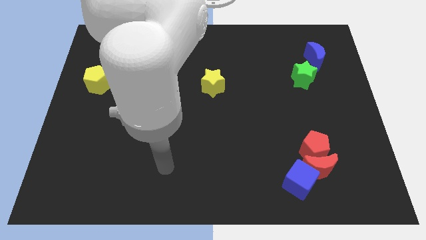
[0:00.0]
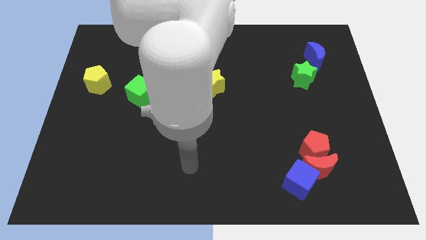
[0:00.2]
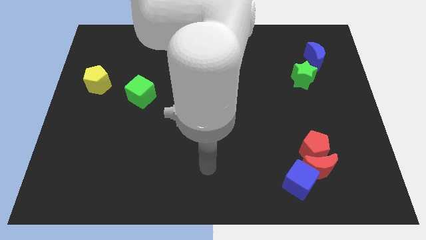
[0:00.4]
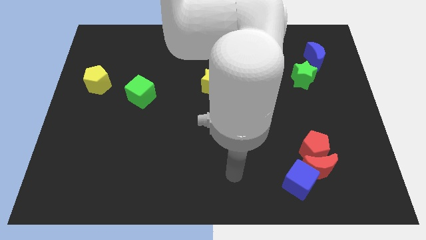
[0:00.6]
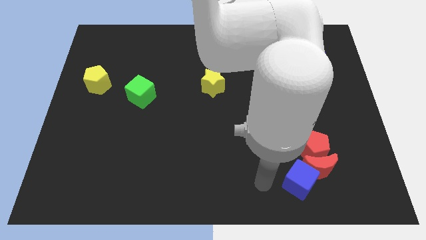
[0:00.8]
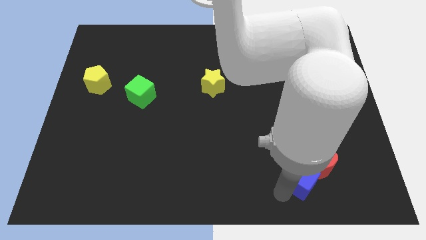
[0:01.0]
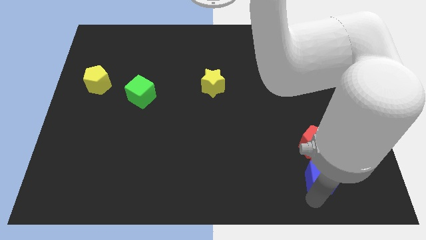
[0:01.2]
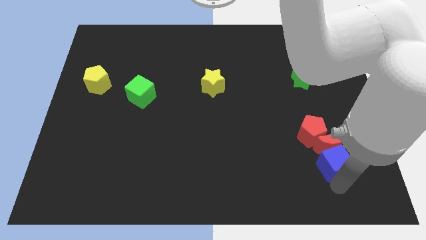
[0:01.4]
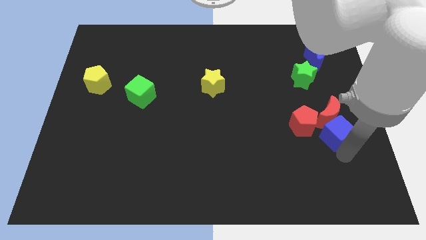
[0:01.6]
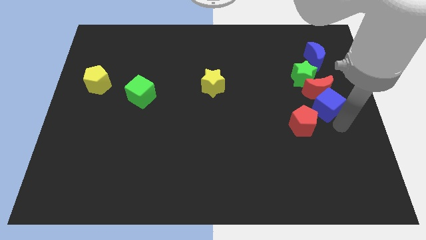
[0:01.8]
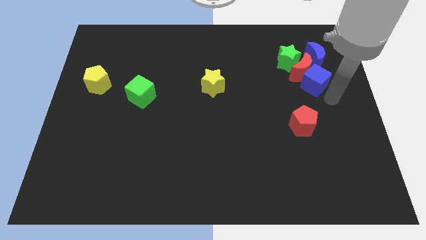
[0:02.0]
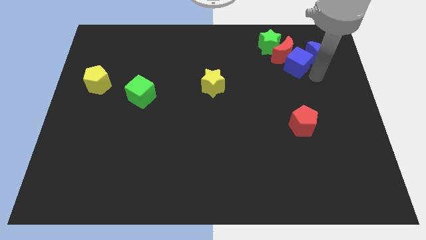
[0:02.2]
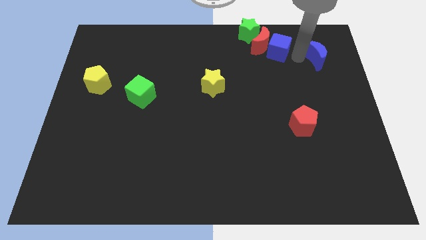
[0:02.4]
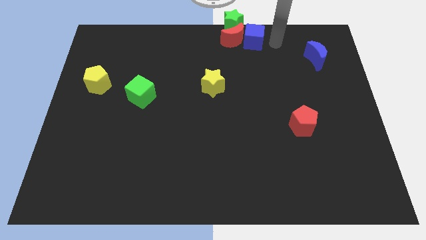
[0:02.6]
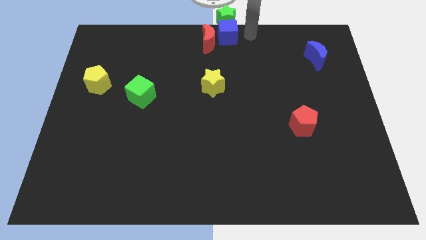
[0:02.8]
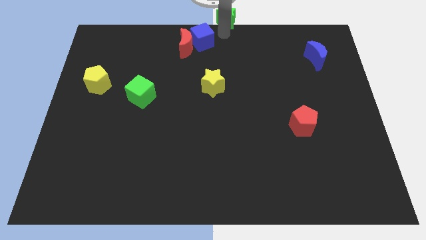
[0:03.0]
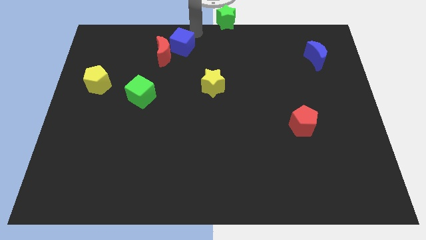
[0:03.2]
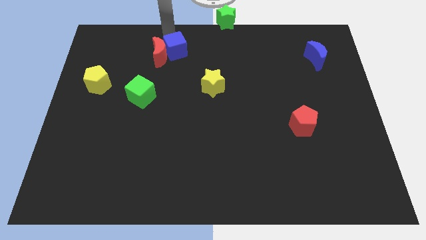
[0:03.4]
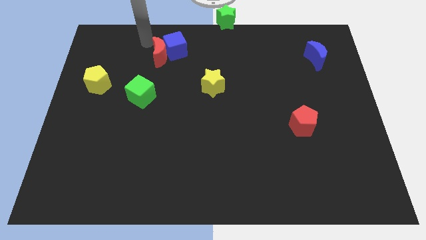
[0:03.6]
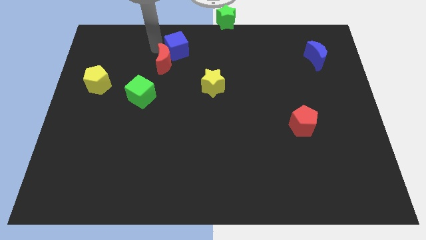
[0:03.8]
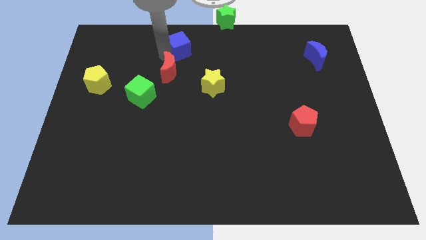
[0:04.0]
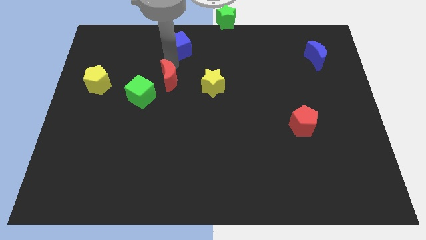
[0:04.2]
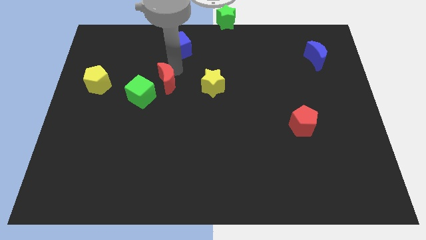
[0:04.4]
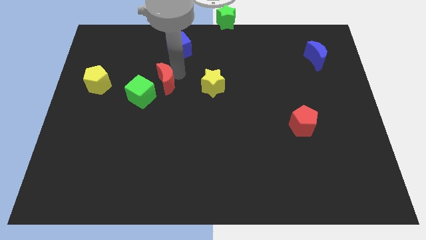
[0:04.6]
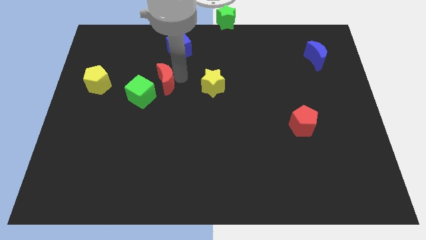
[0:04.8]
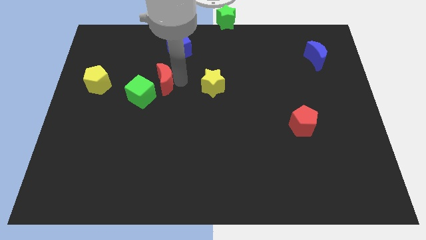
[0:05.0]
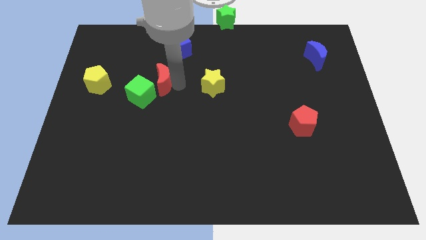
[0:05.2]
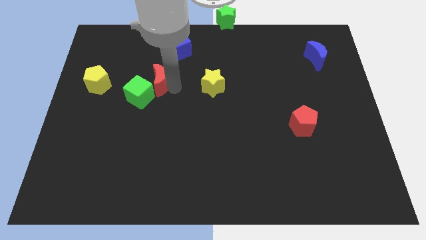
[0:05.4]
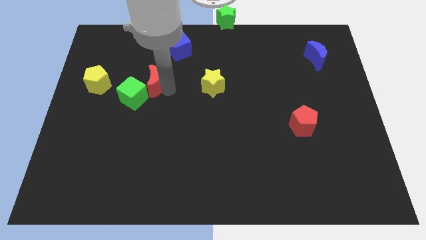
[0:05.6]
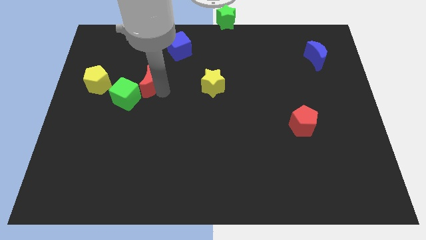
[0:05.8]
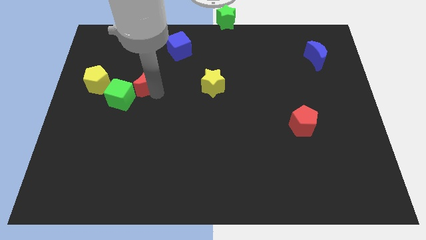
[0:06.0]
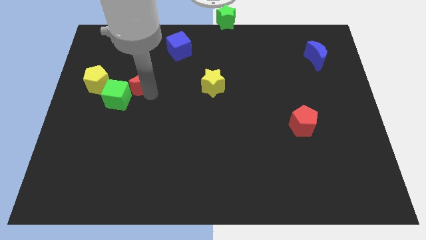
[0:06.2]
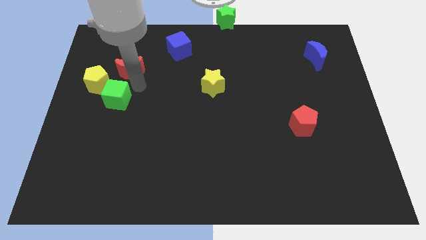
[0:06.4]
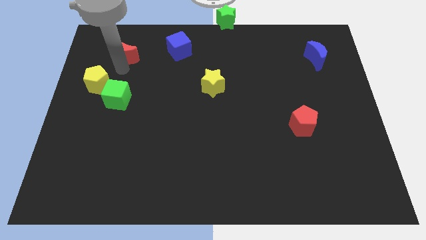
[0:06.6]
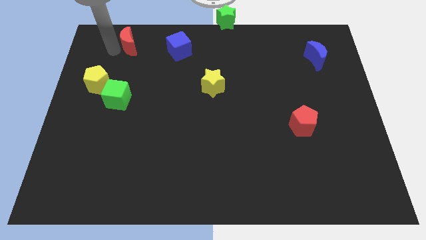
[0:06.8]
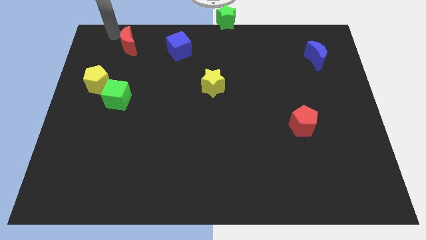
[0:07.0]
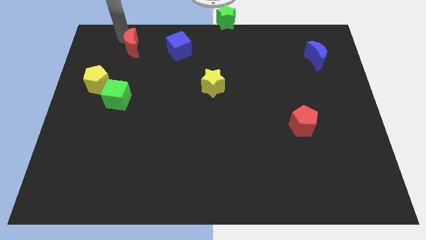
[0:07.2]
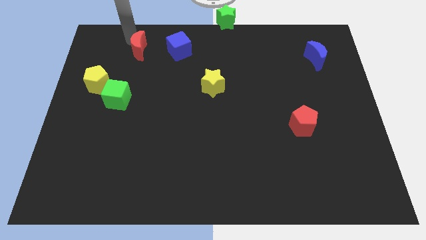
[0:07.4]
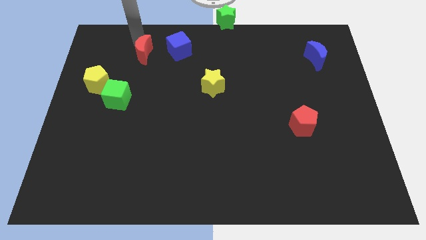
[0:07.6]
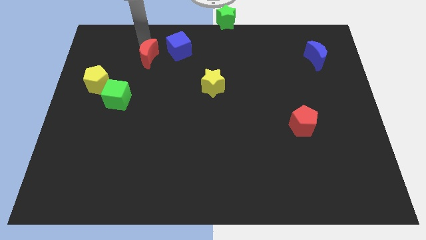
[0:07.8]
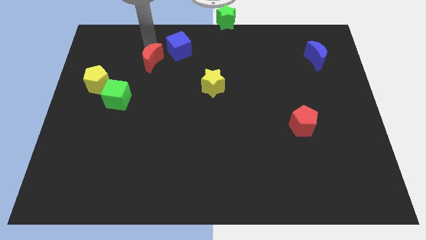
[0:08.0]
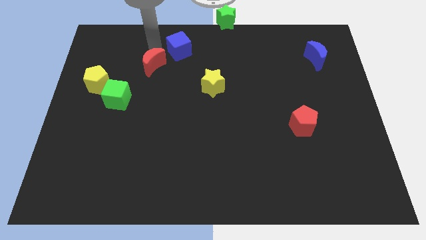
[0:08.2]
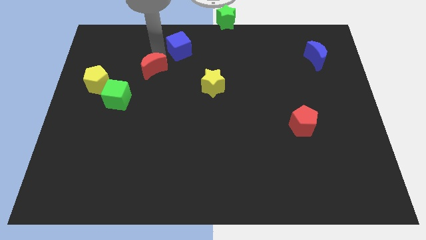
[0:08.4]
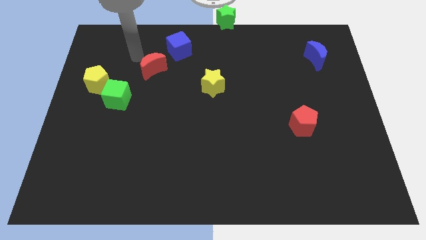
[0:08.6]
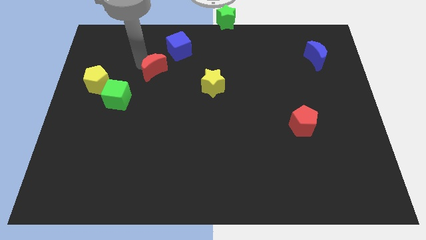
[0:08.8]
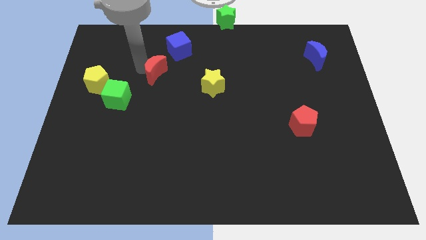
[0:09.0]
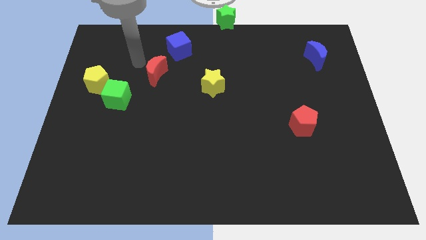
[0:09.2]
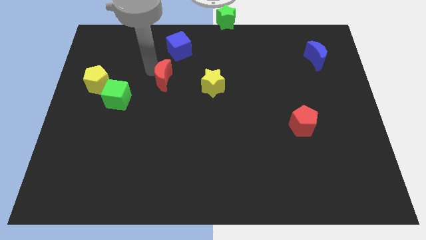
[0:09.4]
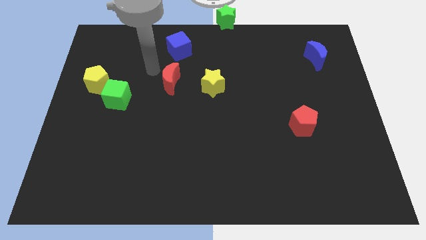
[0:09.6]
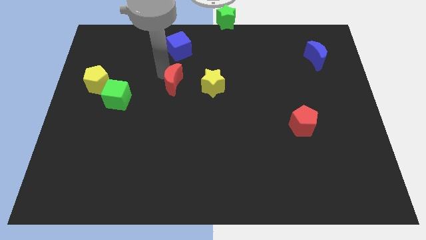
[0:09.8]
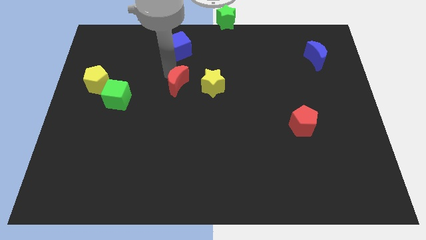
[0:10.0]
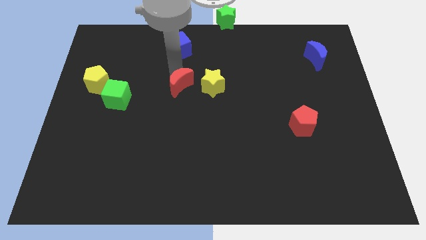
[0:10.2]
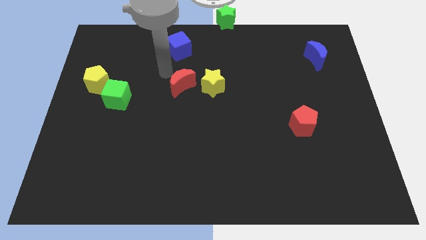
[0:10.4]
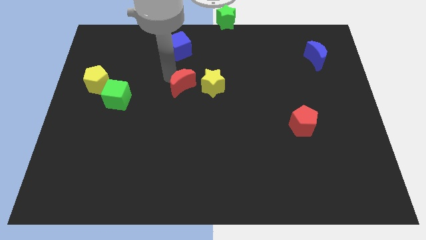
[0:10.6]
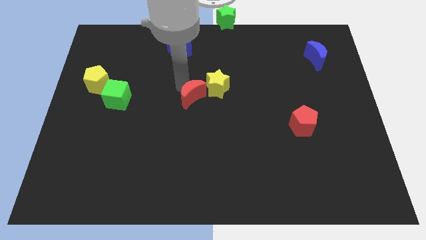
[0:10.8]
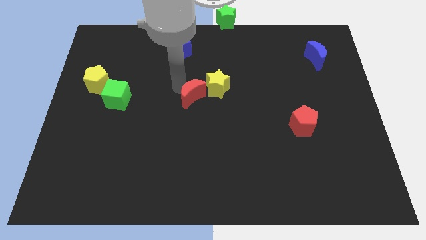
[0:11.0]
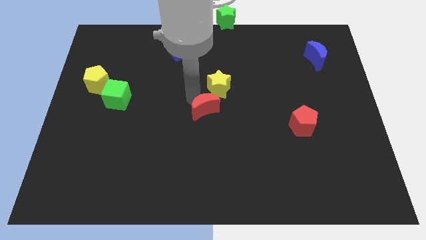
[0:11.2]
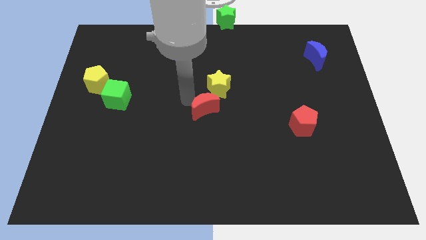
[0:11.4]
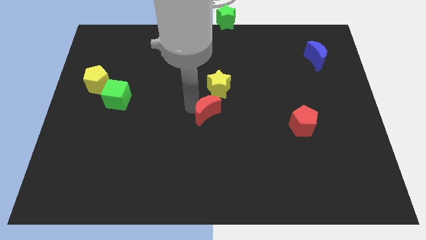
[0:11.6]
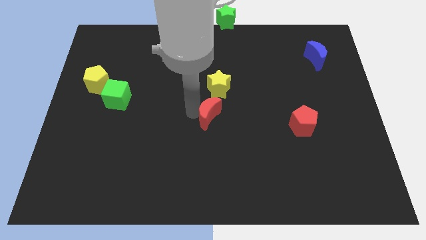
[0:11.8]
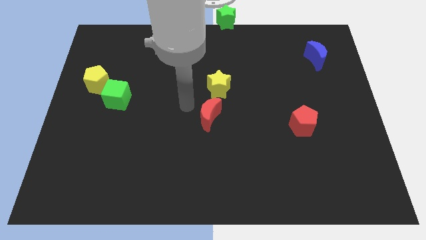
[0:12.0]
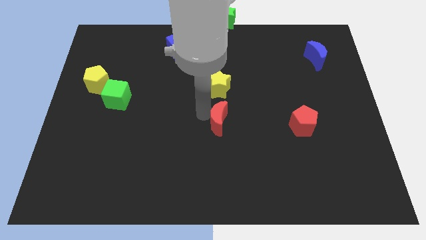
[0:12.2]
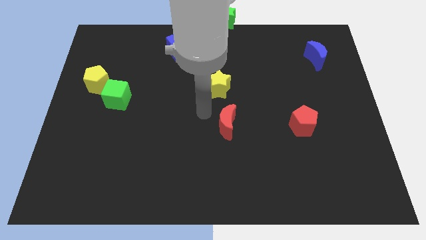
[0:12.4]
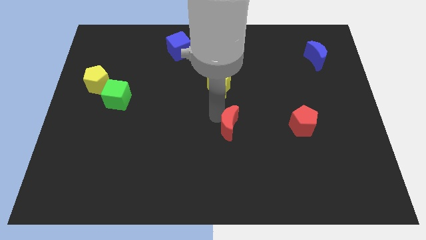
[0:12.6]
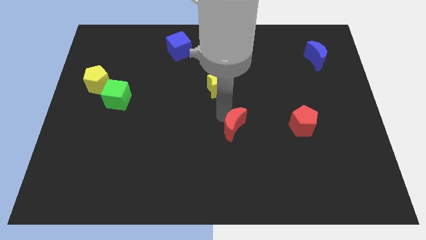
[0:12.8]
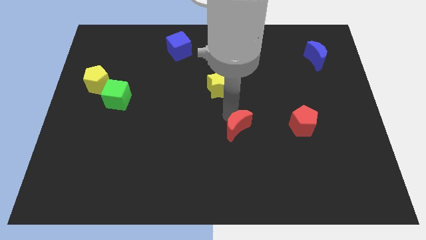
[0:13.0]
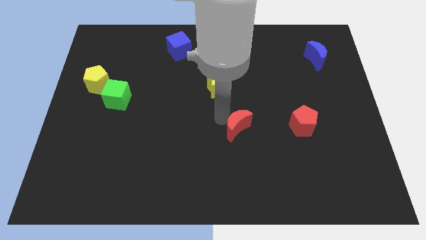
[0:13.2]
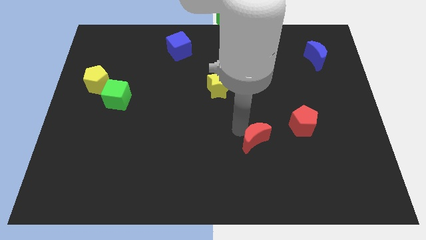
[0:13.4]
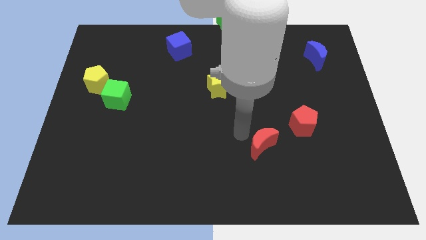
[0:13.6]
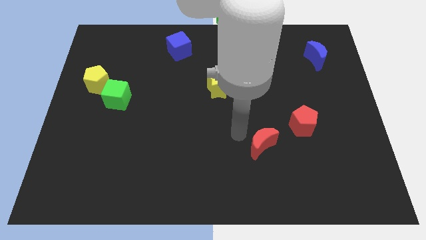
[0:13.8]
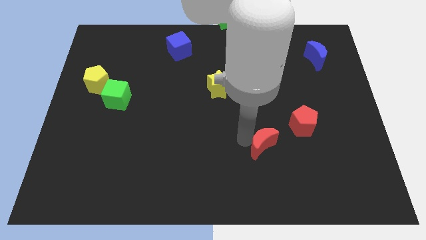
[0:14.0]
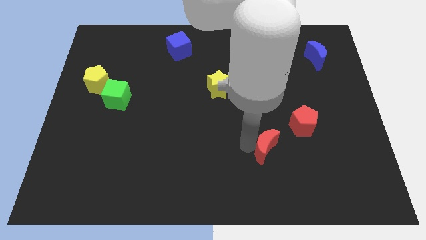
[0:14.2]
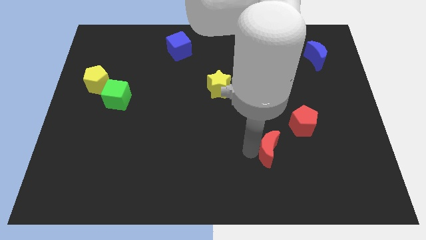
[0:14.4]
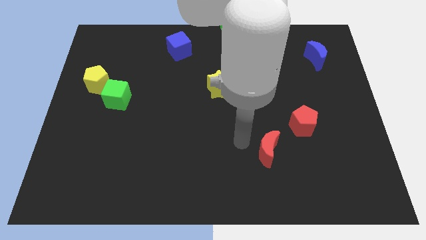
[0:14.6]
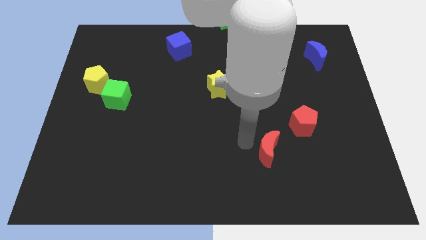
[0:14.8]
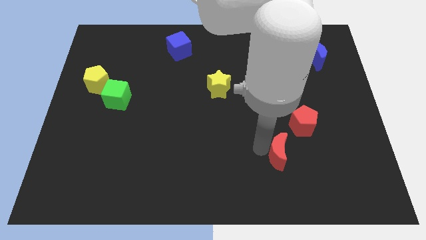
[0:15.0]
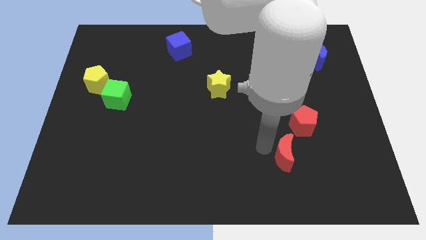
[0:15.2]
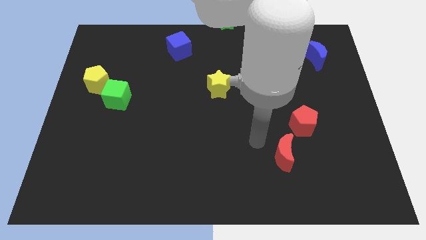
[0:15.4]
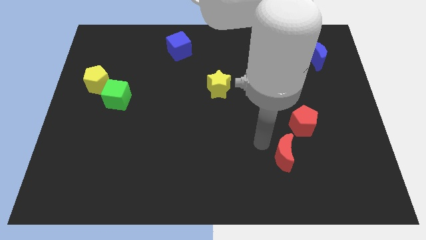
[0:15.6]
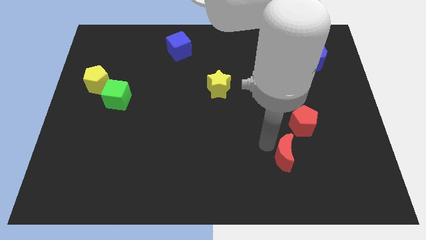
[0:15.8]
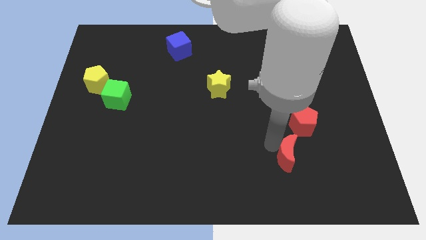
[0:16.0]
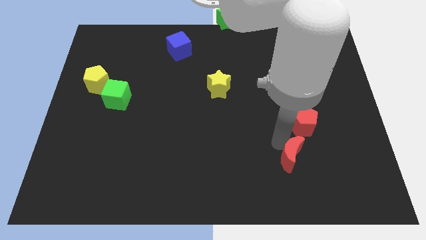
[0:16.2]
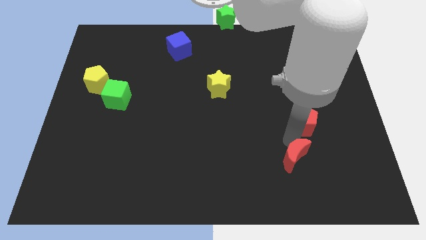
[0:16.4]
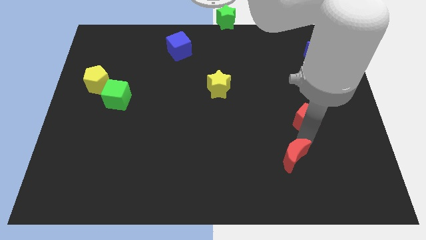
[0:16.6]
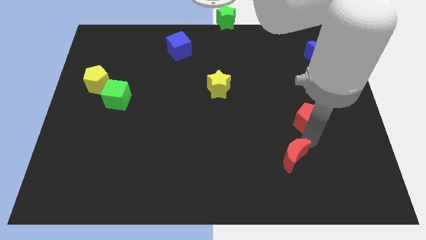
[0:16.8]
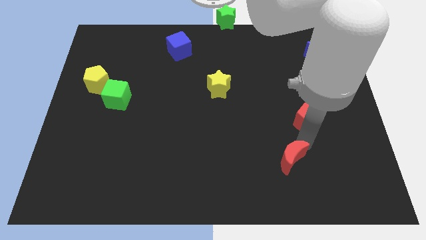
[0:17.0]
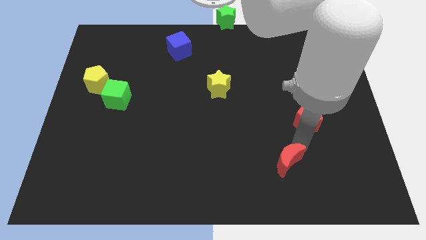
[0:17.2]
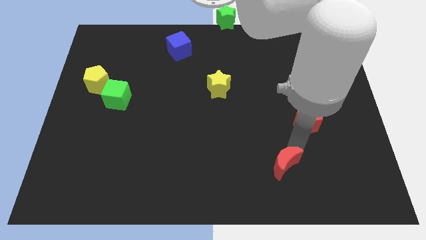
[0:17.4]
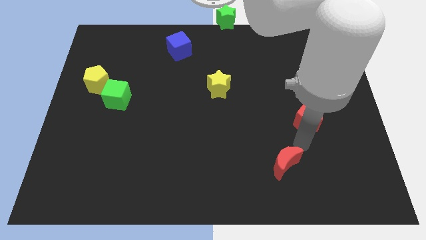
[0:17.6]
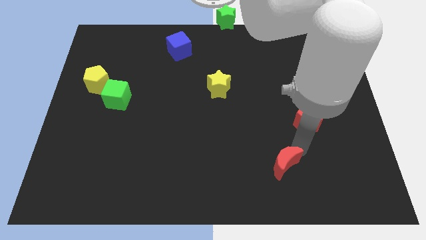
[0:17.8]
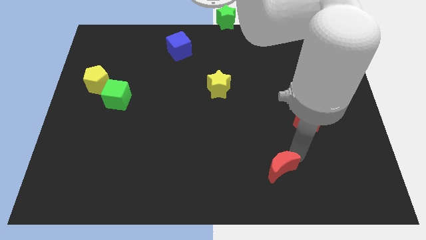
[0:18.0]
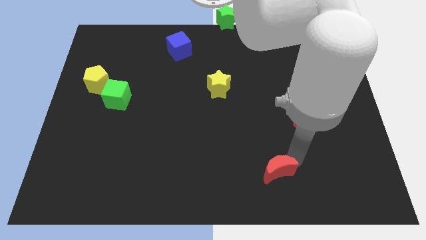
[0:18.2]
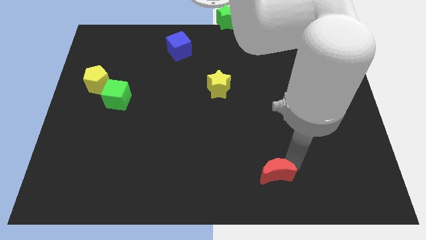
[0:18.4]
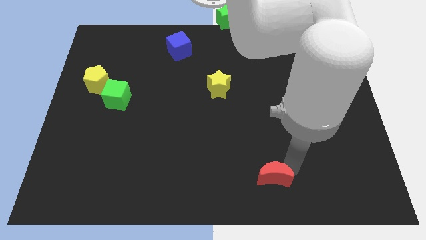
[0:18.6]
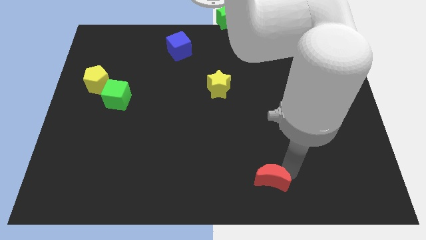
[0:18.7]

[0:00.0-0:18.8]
push the red moon to the bottom side
